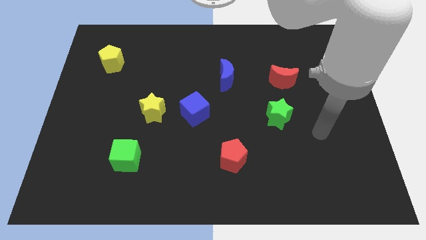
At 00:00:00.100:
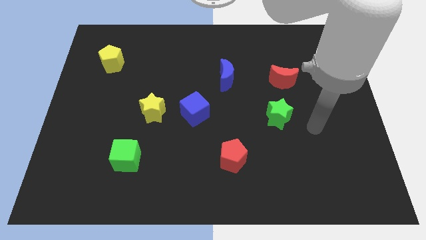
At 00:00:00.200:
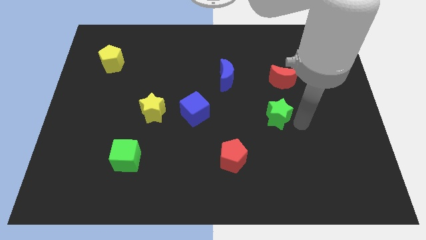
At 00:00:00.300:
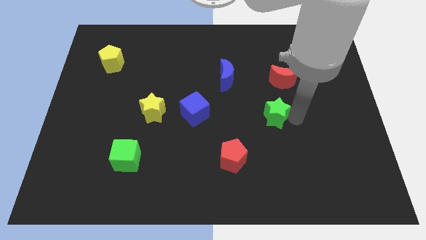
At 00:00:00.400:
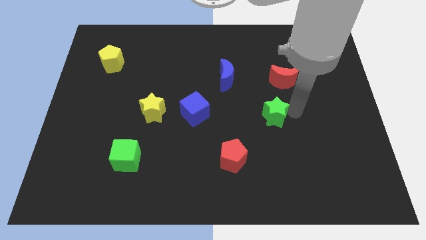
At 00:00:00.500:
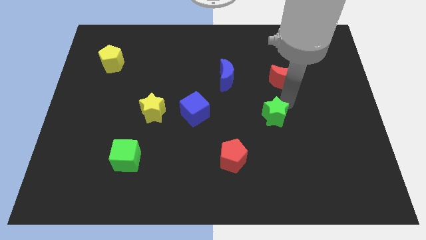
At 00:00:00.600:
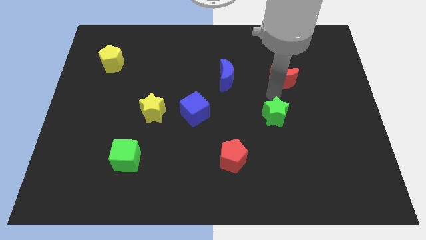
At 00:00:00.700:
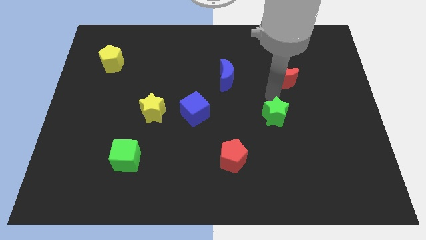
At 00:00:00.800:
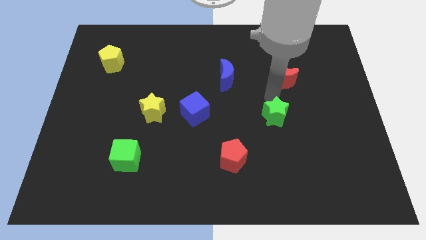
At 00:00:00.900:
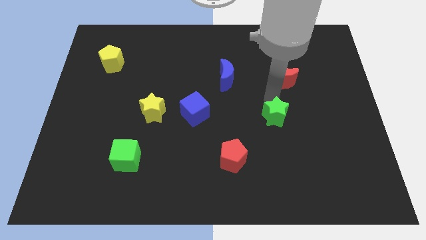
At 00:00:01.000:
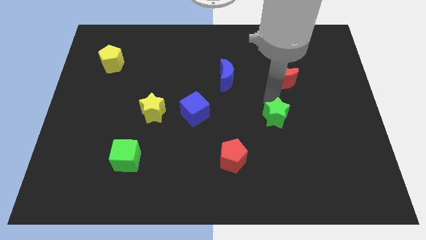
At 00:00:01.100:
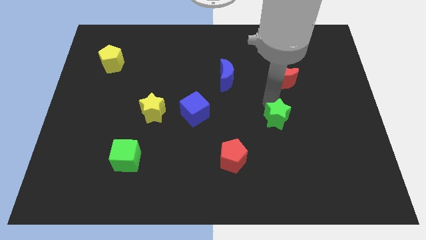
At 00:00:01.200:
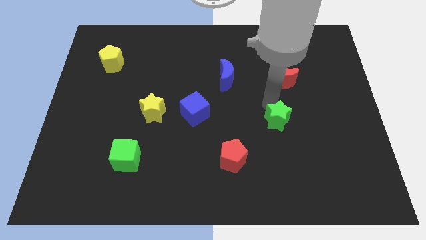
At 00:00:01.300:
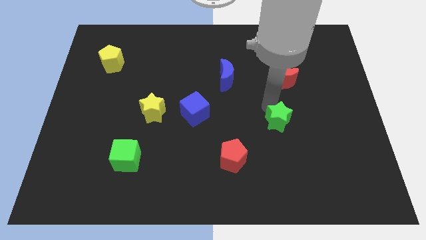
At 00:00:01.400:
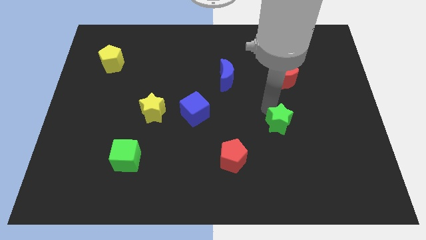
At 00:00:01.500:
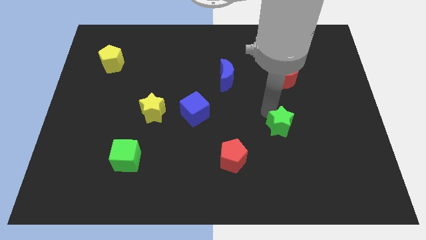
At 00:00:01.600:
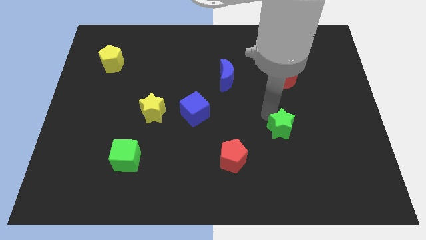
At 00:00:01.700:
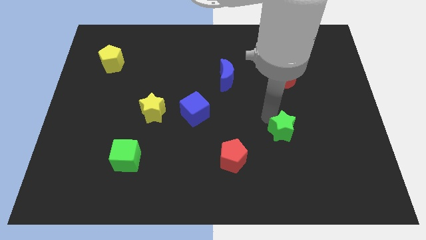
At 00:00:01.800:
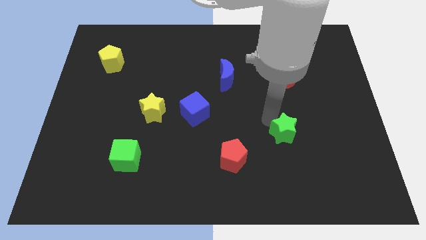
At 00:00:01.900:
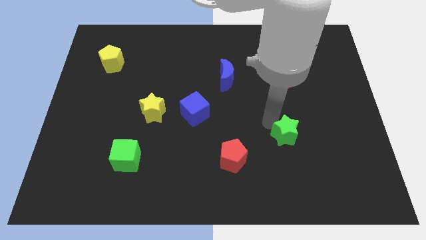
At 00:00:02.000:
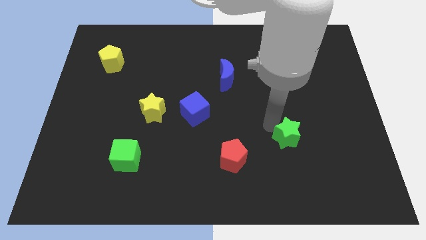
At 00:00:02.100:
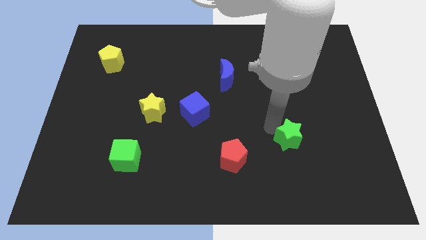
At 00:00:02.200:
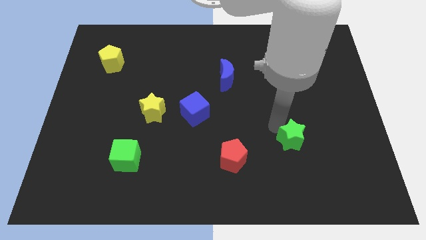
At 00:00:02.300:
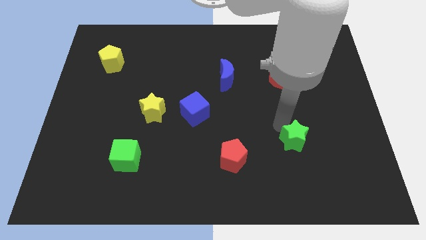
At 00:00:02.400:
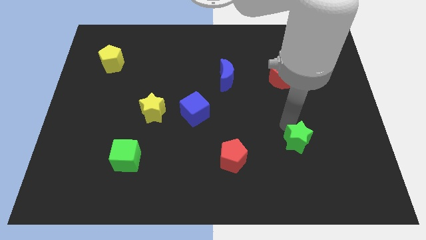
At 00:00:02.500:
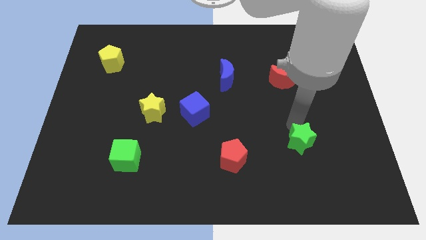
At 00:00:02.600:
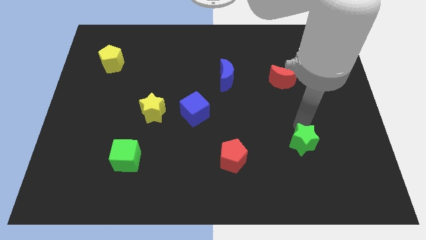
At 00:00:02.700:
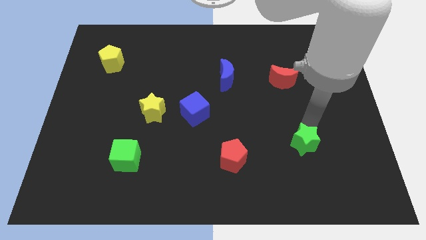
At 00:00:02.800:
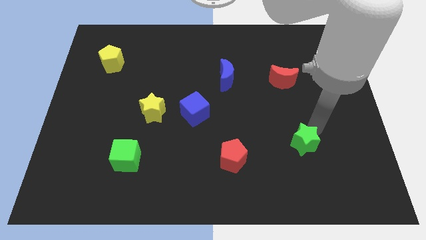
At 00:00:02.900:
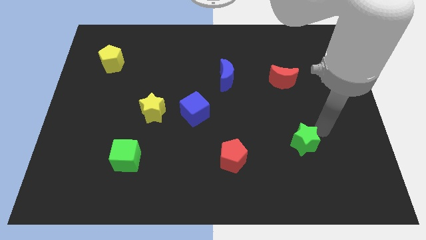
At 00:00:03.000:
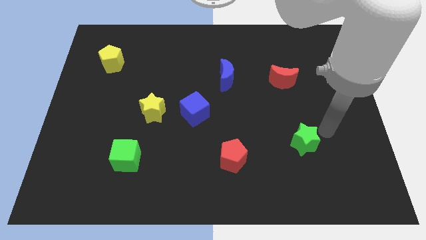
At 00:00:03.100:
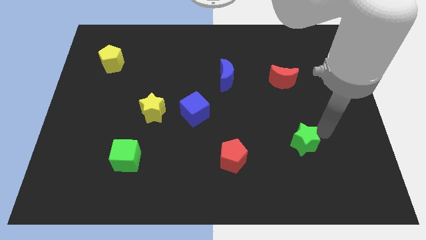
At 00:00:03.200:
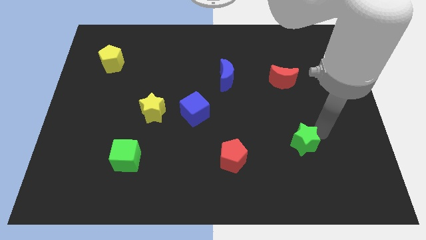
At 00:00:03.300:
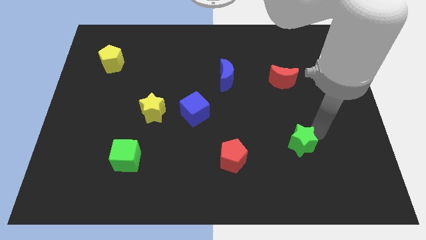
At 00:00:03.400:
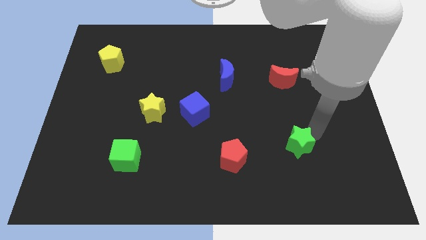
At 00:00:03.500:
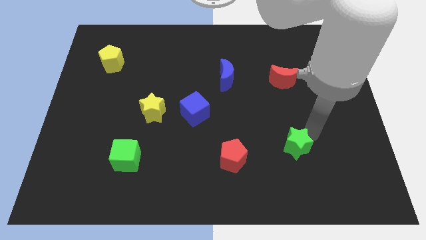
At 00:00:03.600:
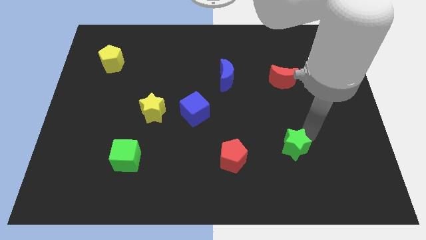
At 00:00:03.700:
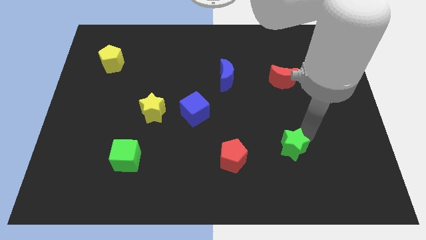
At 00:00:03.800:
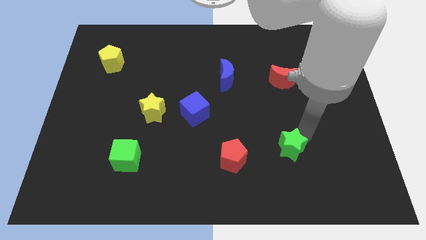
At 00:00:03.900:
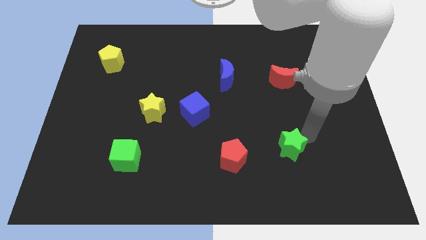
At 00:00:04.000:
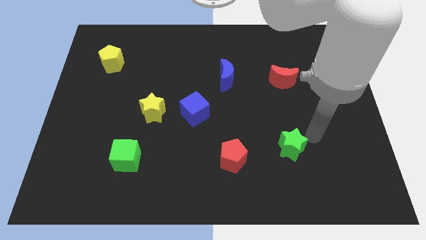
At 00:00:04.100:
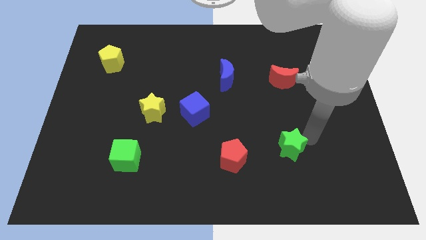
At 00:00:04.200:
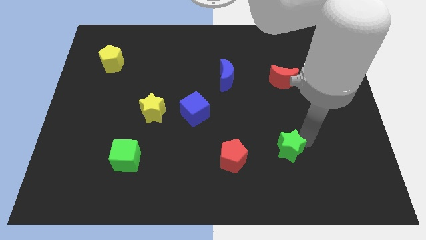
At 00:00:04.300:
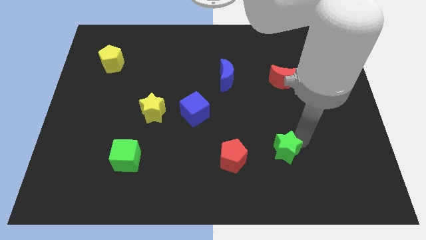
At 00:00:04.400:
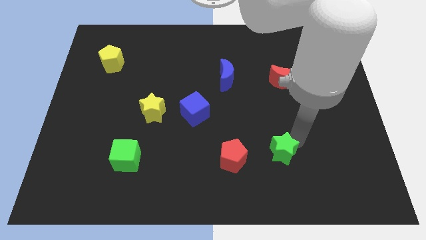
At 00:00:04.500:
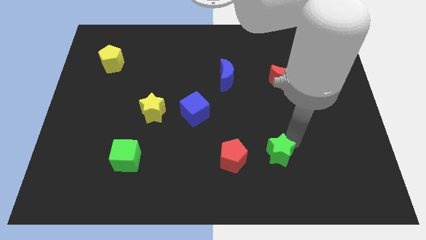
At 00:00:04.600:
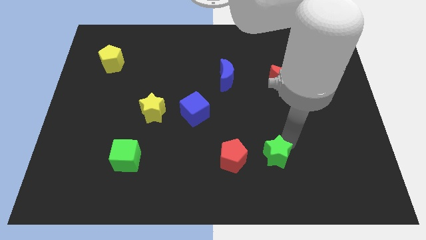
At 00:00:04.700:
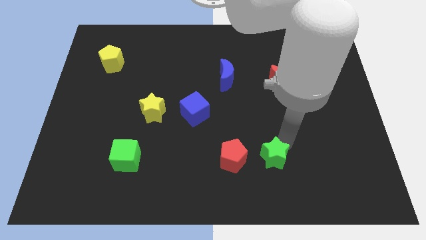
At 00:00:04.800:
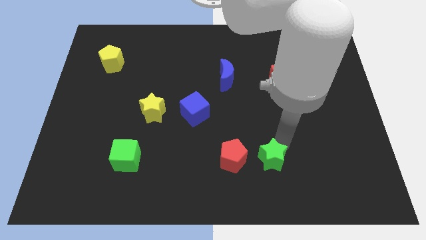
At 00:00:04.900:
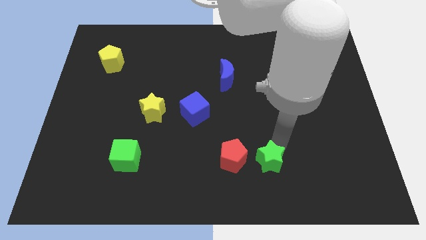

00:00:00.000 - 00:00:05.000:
slide the green star to the bottom right of the red pentagon

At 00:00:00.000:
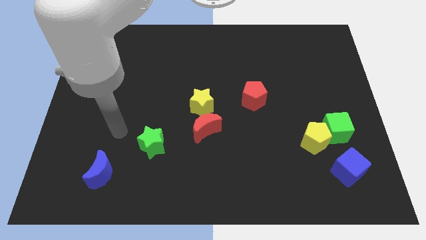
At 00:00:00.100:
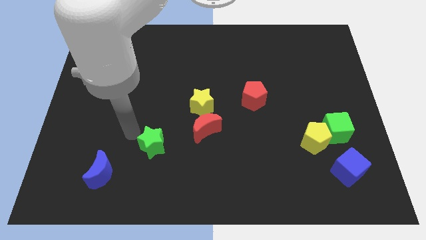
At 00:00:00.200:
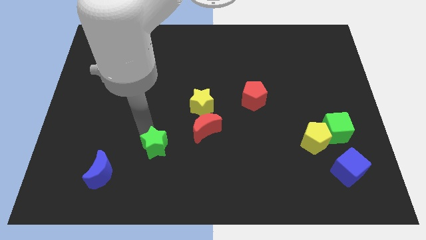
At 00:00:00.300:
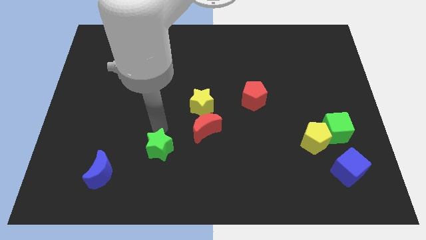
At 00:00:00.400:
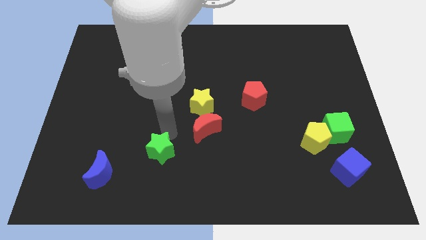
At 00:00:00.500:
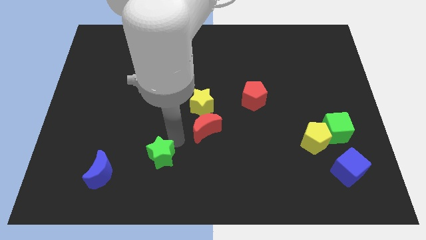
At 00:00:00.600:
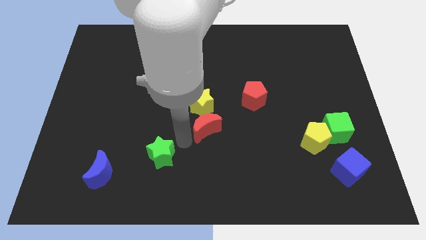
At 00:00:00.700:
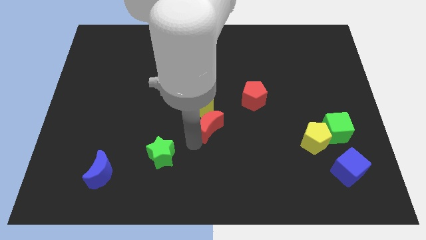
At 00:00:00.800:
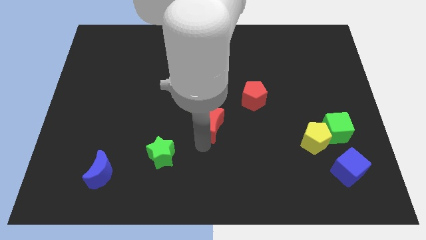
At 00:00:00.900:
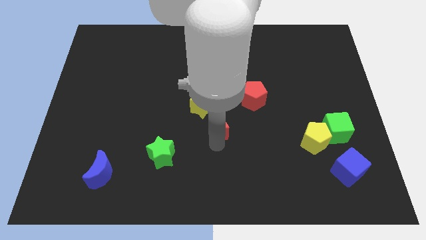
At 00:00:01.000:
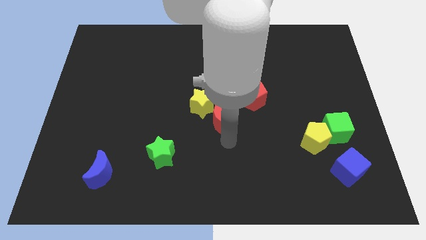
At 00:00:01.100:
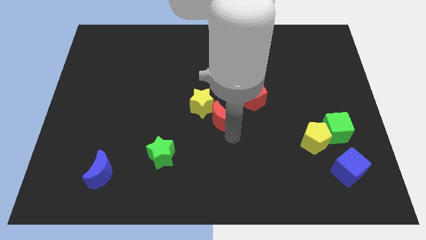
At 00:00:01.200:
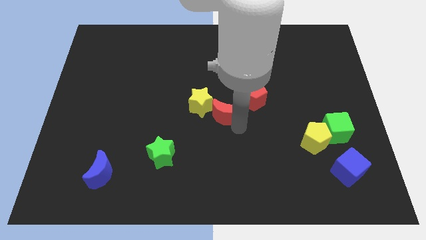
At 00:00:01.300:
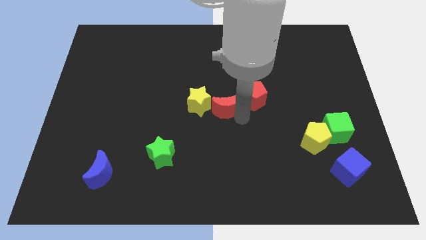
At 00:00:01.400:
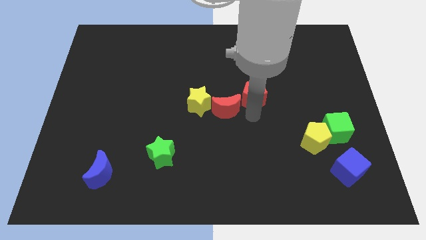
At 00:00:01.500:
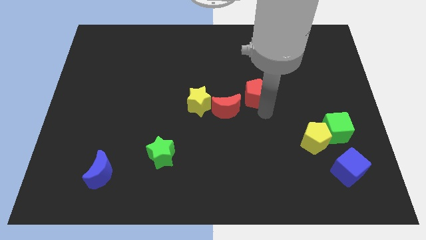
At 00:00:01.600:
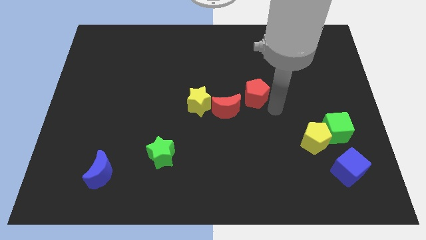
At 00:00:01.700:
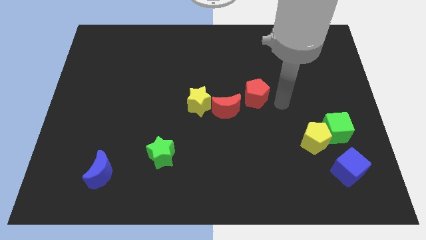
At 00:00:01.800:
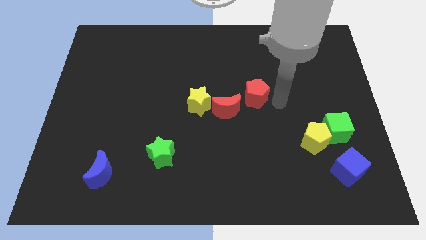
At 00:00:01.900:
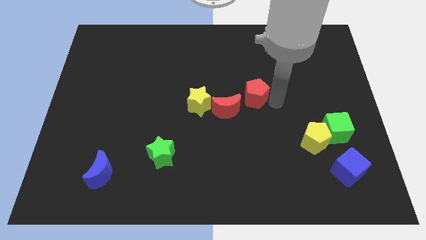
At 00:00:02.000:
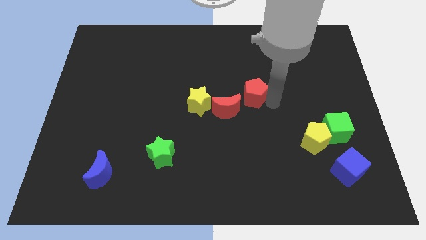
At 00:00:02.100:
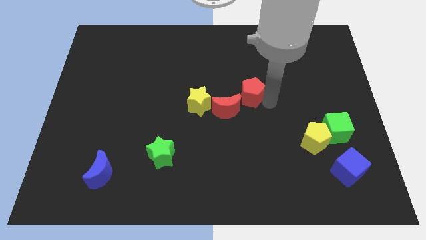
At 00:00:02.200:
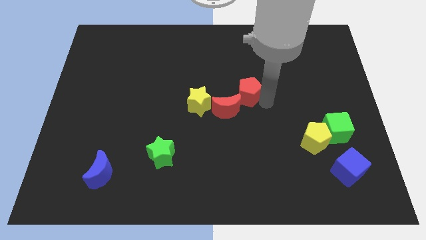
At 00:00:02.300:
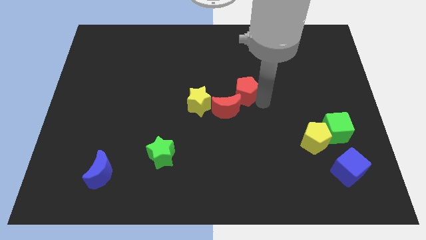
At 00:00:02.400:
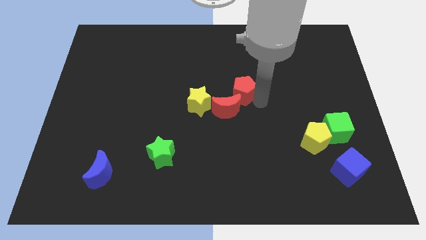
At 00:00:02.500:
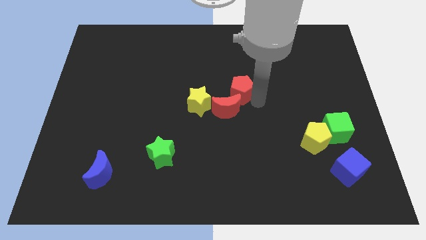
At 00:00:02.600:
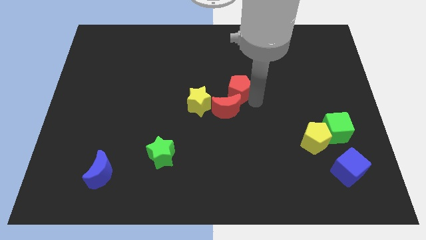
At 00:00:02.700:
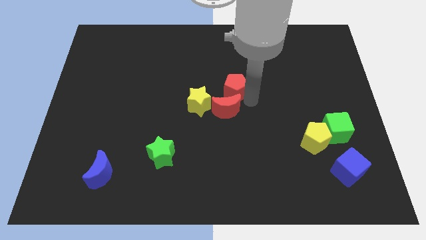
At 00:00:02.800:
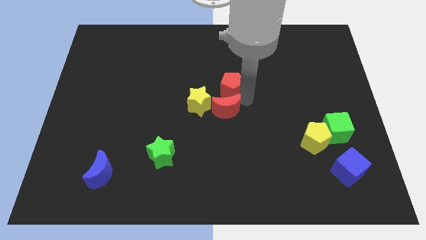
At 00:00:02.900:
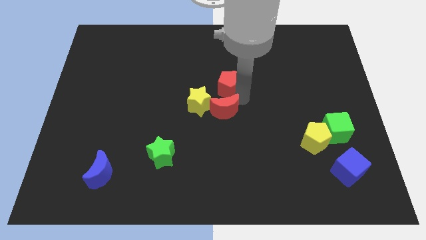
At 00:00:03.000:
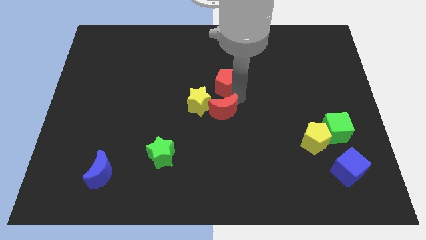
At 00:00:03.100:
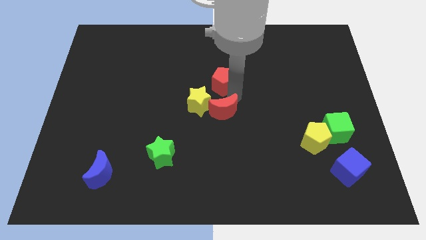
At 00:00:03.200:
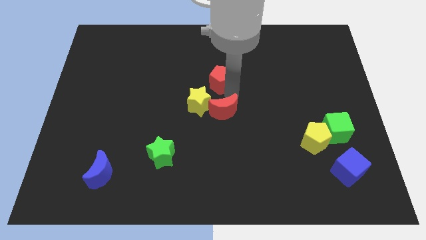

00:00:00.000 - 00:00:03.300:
move the red pentagon to the top side of the yellow star
